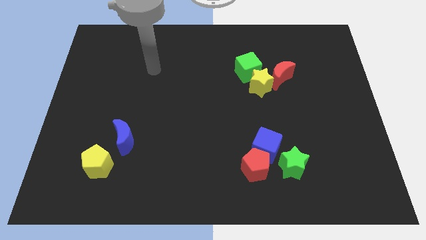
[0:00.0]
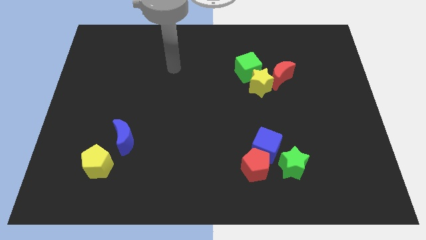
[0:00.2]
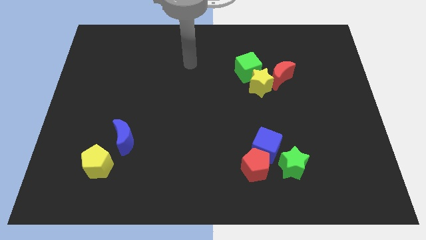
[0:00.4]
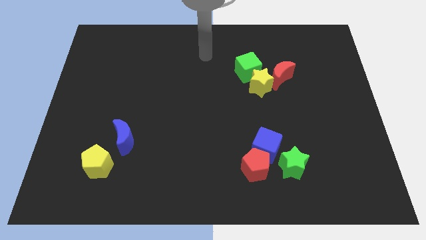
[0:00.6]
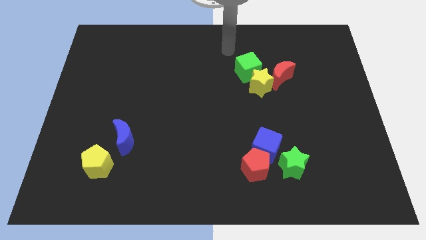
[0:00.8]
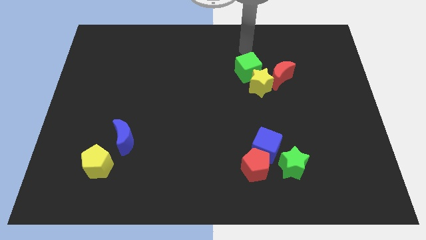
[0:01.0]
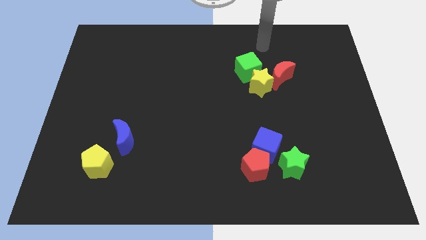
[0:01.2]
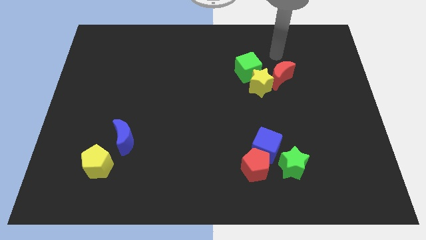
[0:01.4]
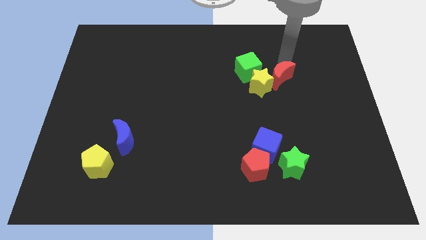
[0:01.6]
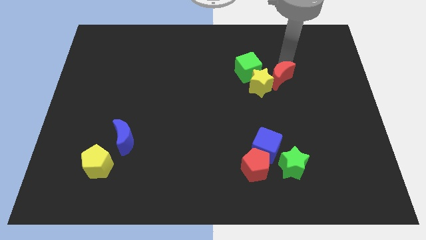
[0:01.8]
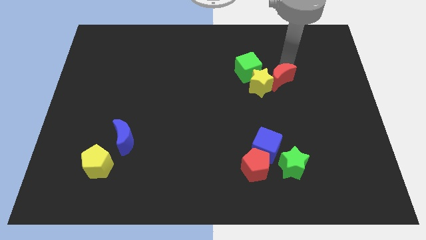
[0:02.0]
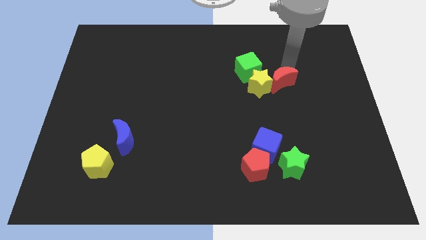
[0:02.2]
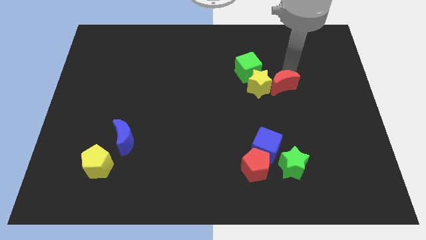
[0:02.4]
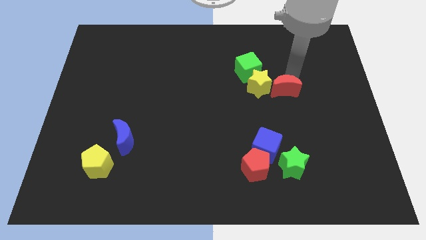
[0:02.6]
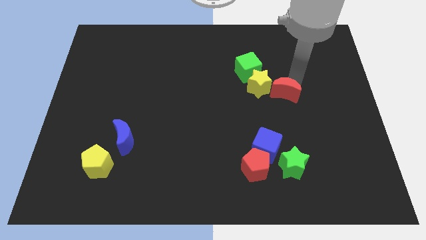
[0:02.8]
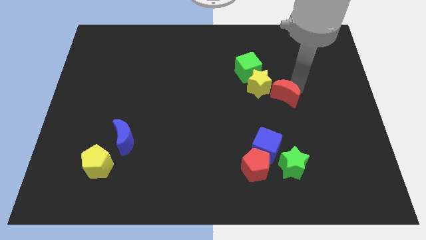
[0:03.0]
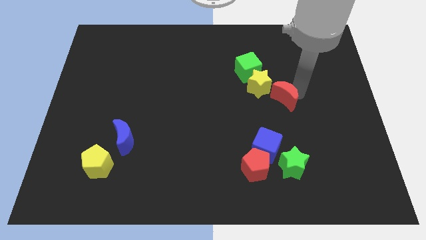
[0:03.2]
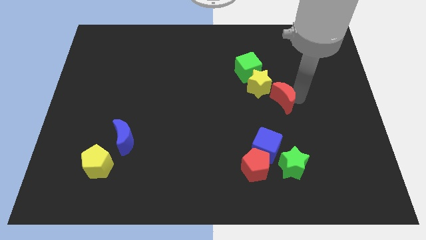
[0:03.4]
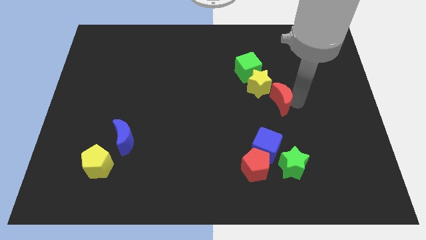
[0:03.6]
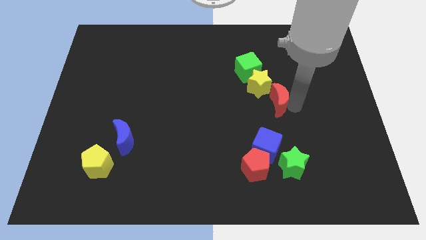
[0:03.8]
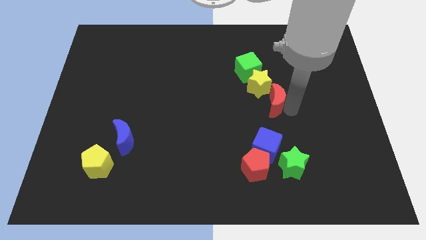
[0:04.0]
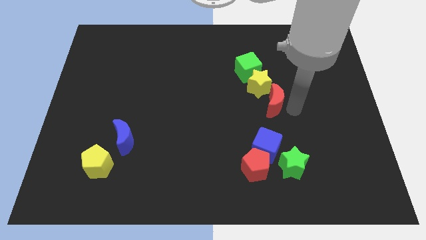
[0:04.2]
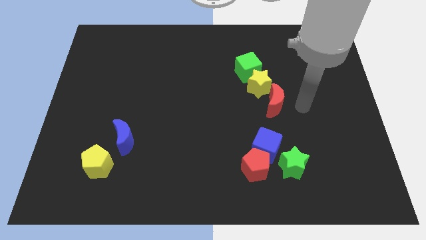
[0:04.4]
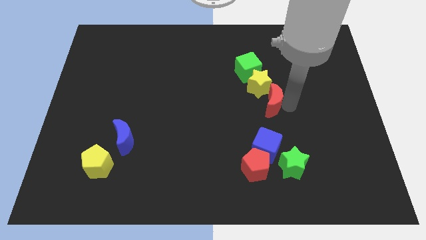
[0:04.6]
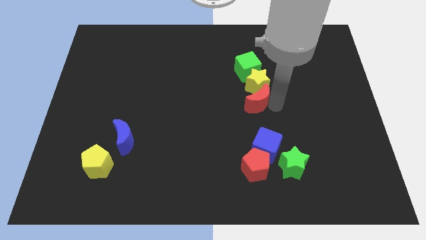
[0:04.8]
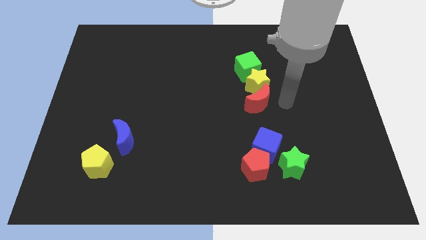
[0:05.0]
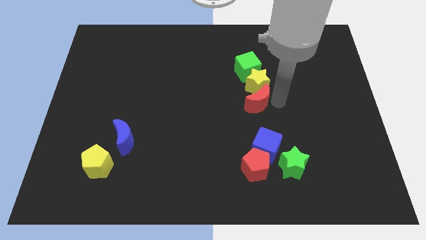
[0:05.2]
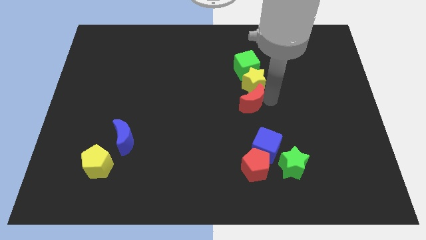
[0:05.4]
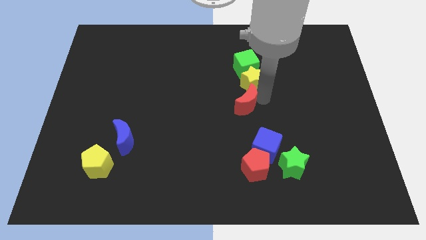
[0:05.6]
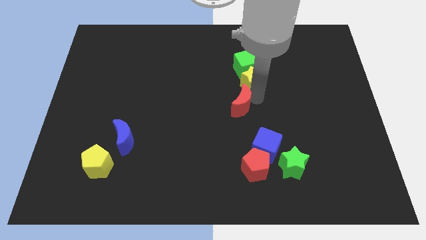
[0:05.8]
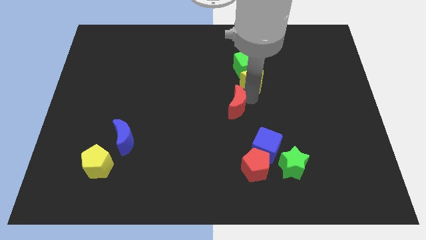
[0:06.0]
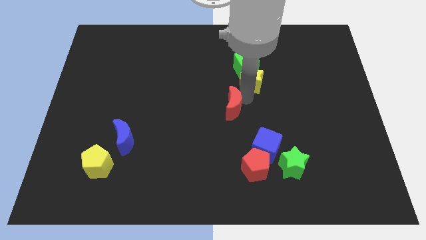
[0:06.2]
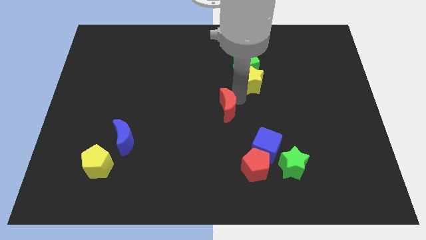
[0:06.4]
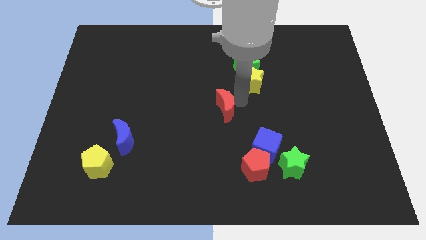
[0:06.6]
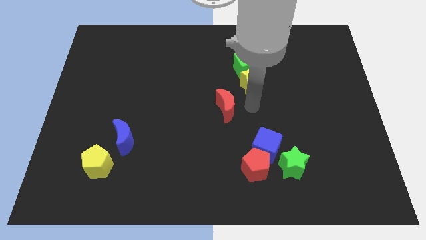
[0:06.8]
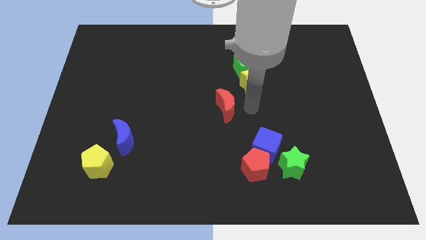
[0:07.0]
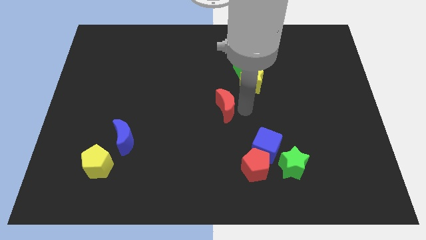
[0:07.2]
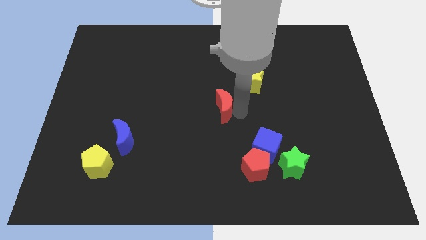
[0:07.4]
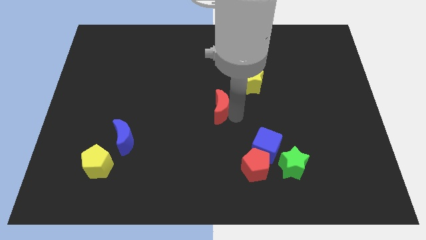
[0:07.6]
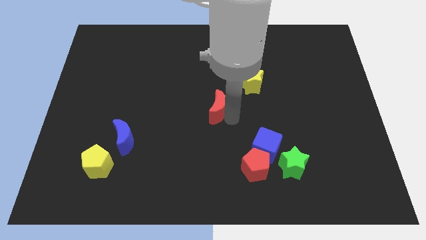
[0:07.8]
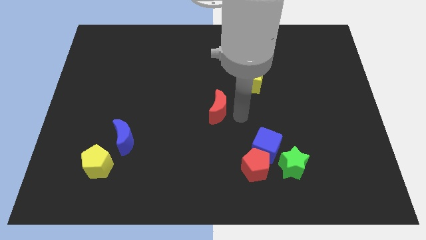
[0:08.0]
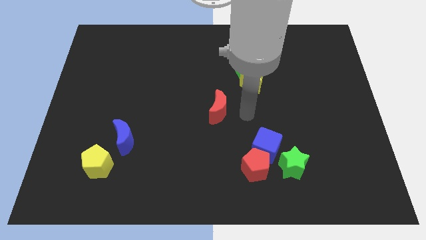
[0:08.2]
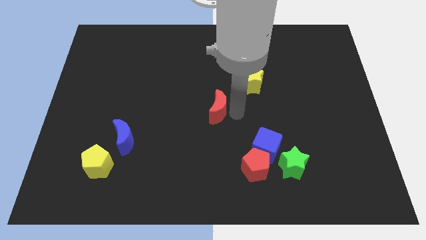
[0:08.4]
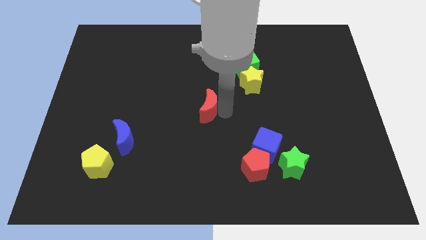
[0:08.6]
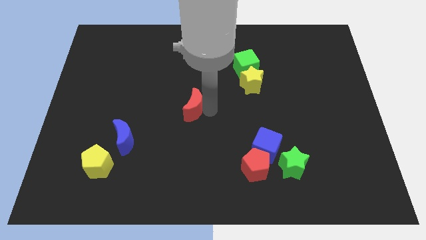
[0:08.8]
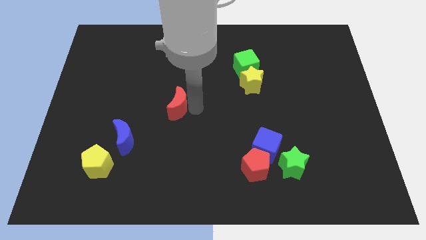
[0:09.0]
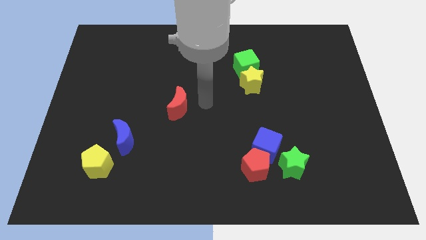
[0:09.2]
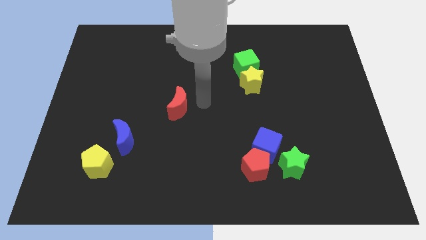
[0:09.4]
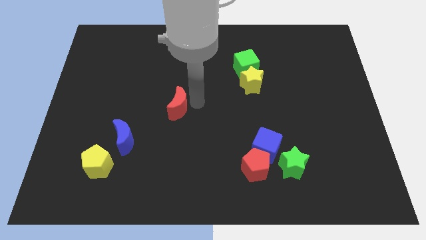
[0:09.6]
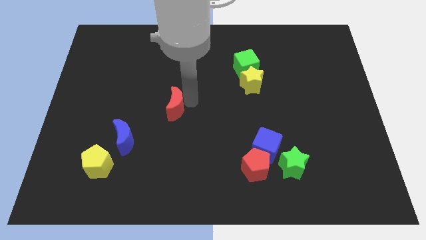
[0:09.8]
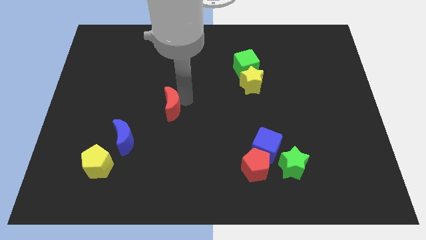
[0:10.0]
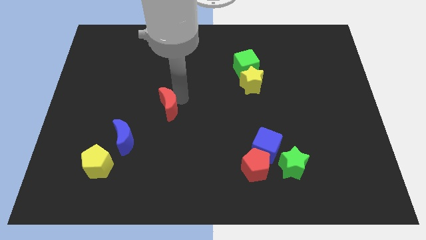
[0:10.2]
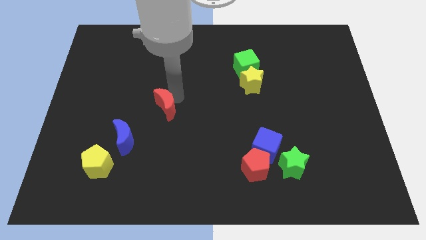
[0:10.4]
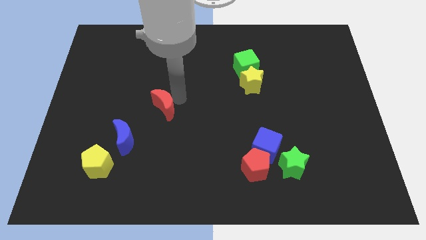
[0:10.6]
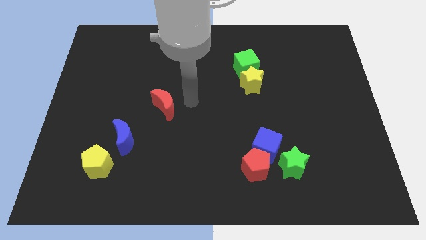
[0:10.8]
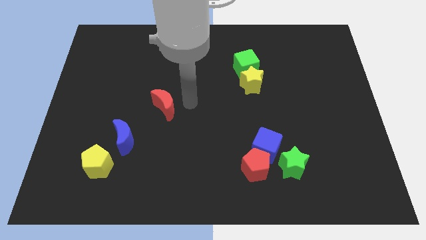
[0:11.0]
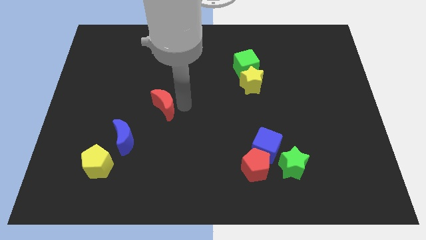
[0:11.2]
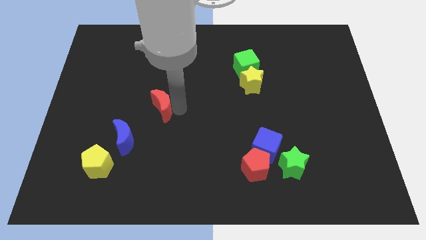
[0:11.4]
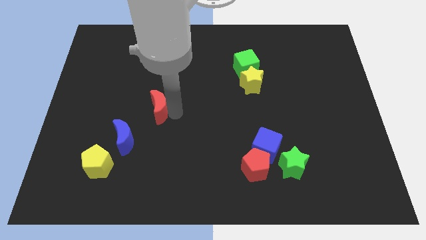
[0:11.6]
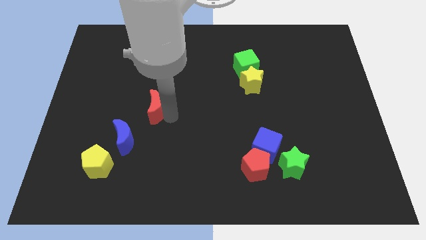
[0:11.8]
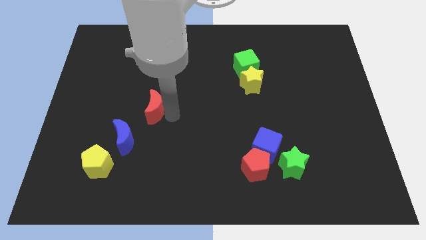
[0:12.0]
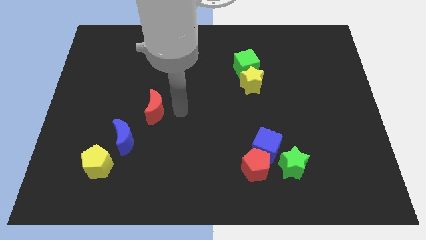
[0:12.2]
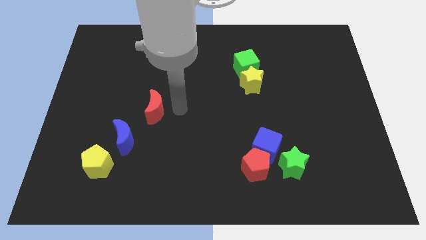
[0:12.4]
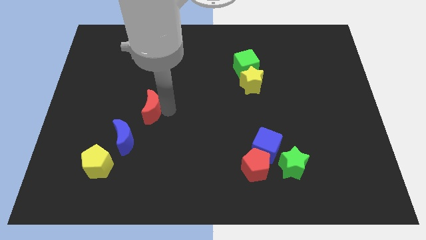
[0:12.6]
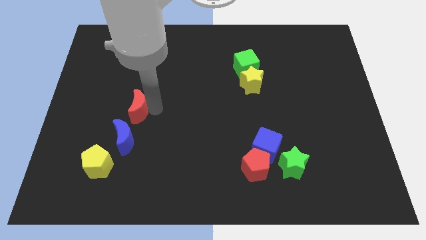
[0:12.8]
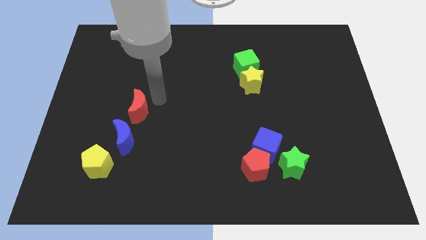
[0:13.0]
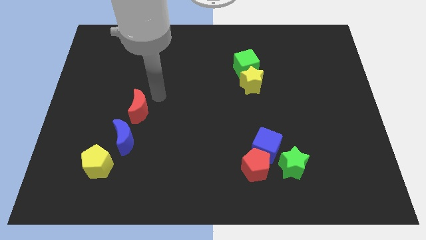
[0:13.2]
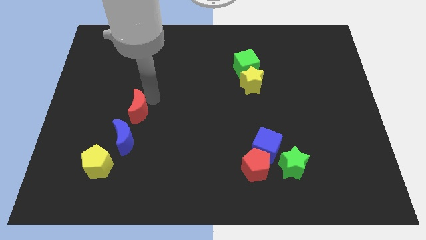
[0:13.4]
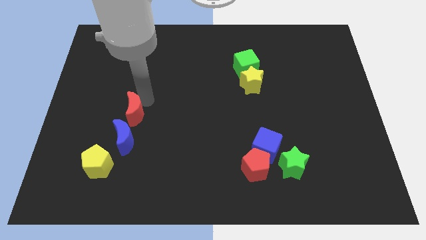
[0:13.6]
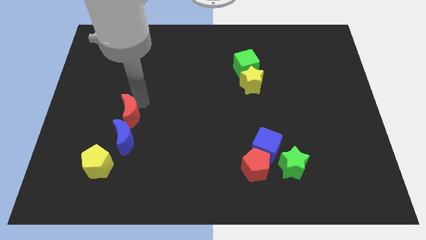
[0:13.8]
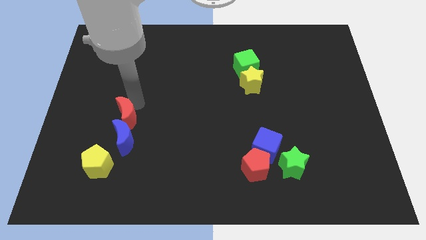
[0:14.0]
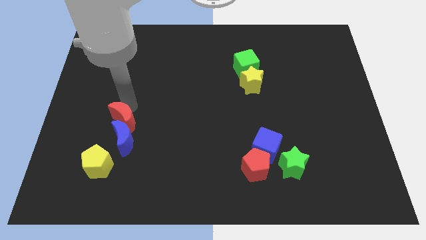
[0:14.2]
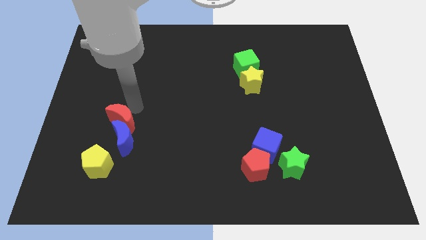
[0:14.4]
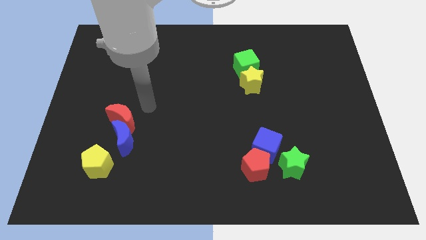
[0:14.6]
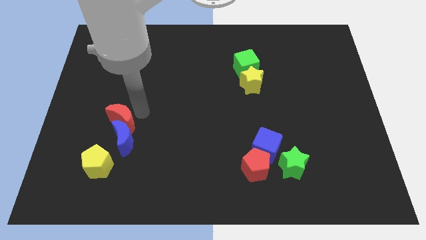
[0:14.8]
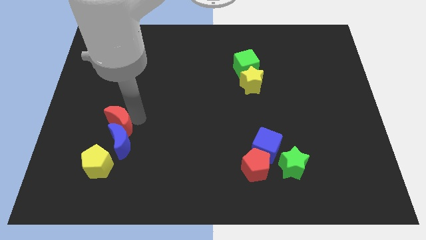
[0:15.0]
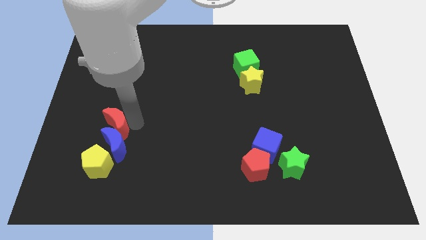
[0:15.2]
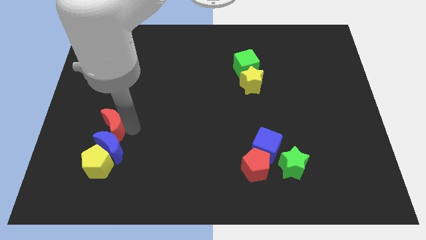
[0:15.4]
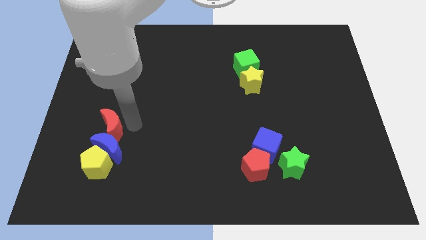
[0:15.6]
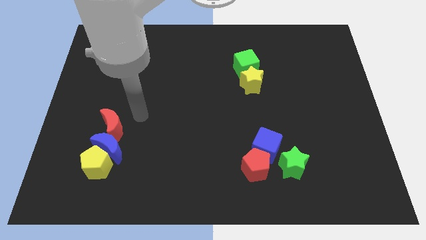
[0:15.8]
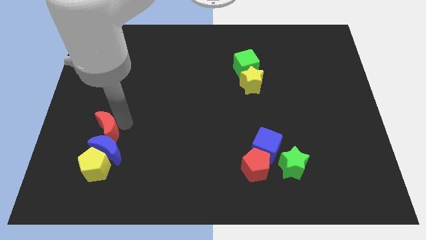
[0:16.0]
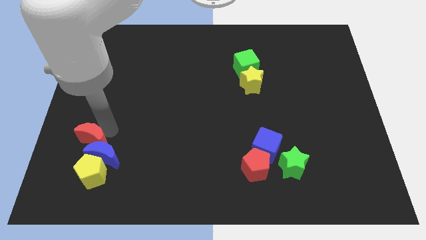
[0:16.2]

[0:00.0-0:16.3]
push the red moon diagonally up and to the left of the yellow pentagon
